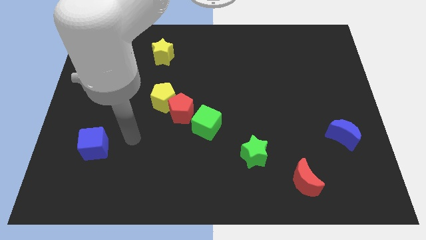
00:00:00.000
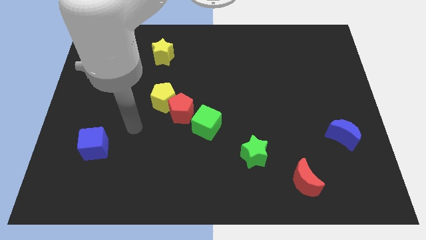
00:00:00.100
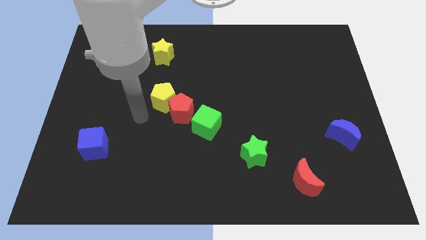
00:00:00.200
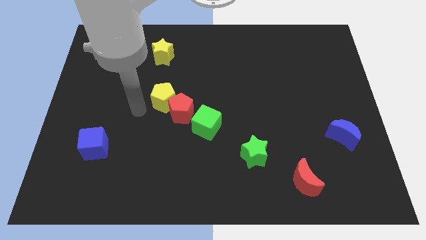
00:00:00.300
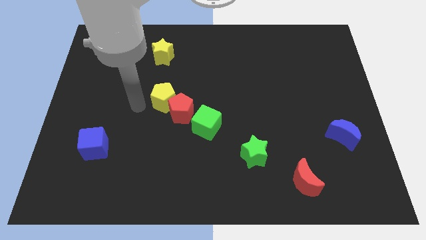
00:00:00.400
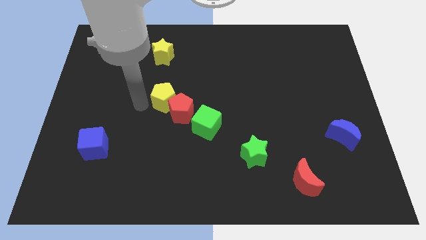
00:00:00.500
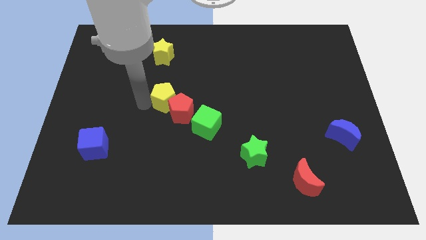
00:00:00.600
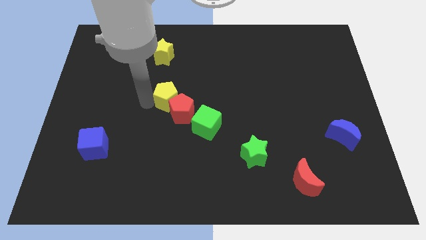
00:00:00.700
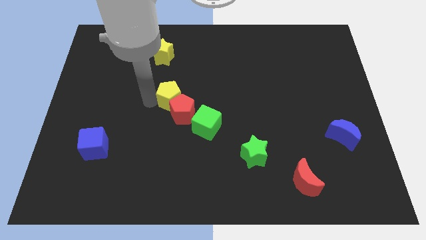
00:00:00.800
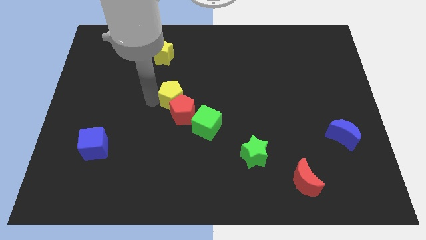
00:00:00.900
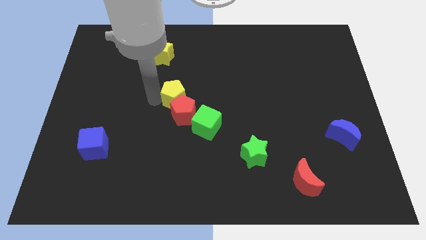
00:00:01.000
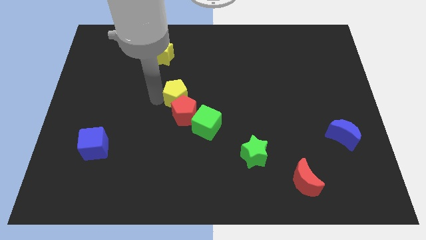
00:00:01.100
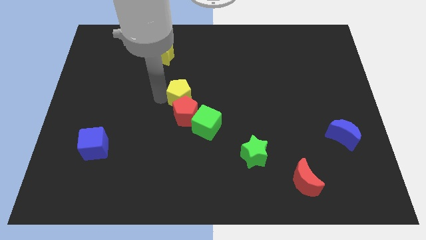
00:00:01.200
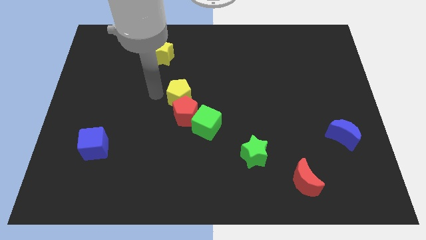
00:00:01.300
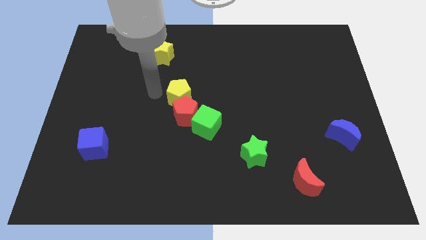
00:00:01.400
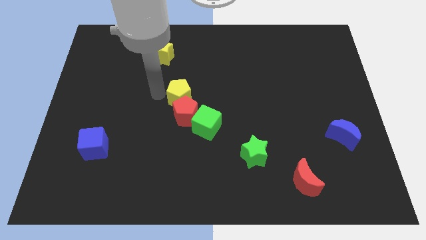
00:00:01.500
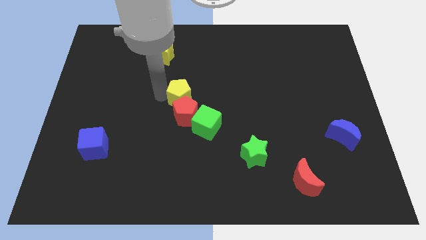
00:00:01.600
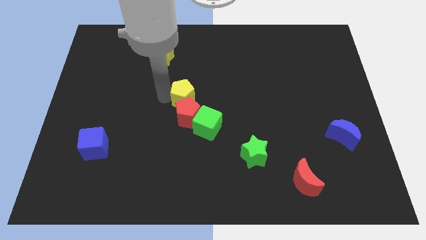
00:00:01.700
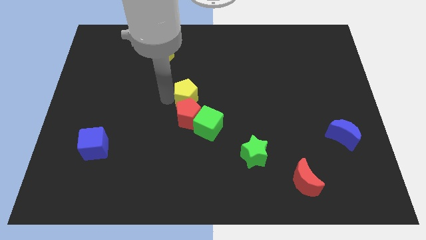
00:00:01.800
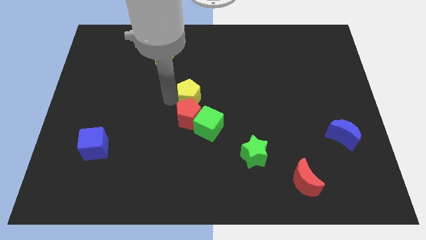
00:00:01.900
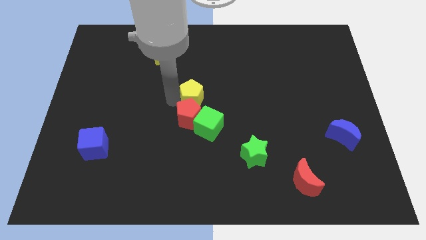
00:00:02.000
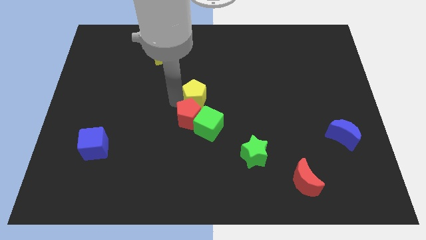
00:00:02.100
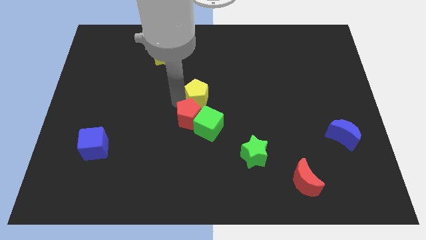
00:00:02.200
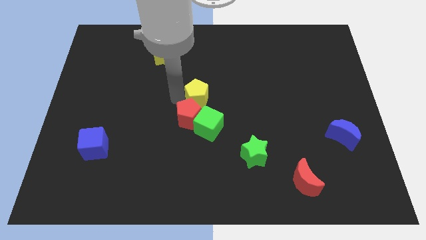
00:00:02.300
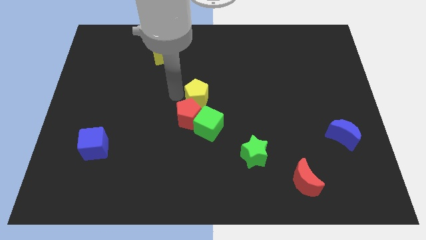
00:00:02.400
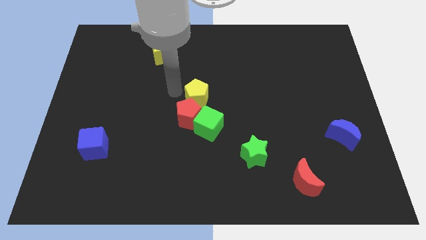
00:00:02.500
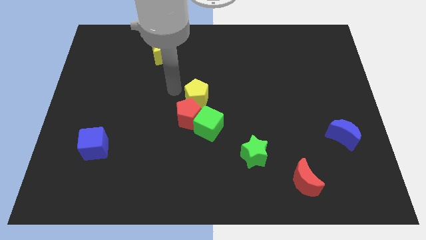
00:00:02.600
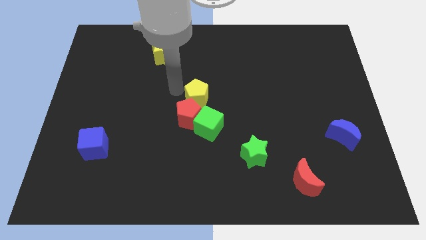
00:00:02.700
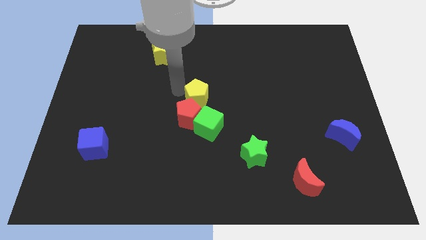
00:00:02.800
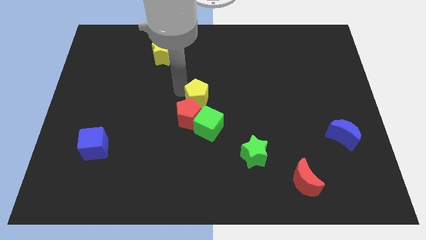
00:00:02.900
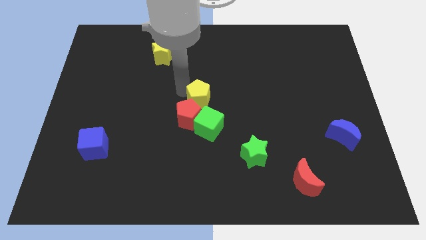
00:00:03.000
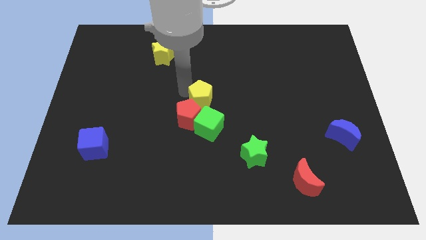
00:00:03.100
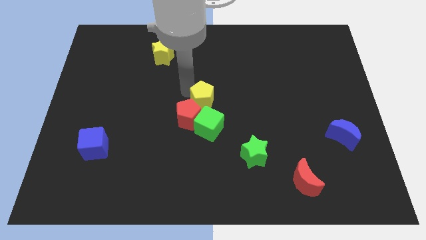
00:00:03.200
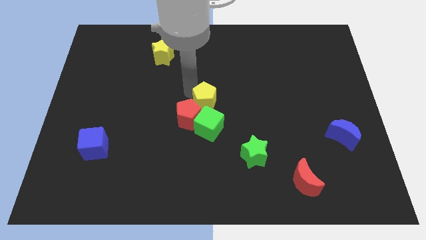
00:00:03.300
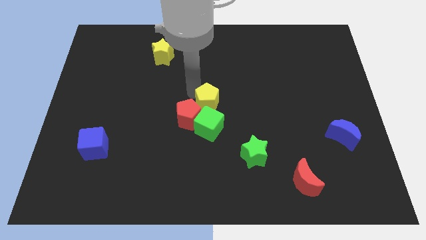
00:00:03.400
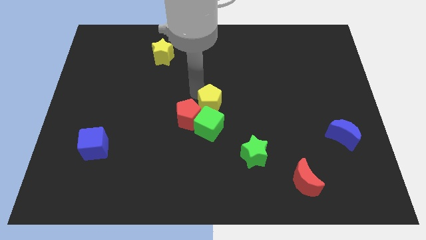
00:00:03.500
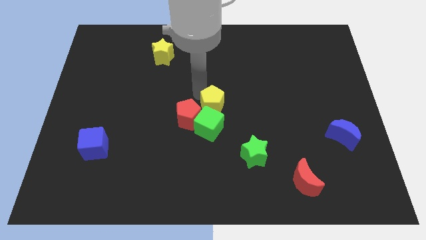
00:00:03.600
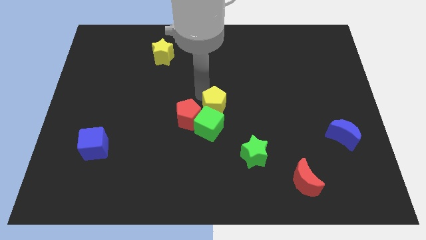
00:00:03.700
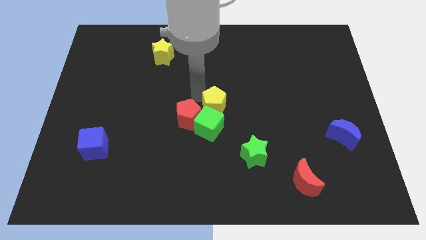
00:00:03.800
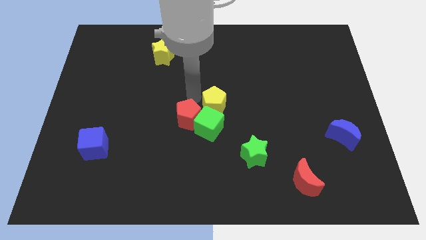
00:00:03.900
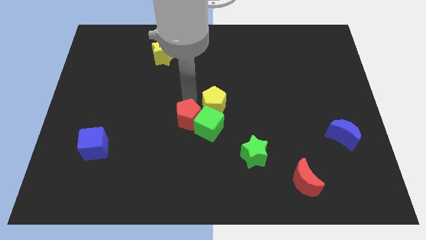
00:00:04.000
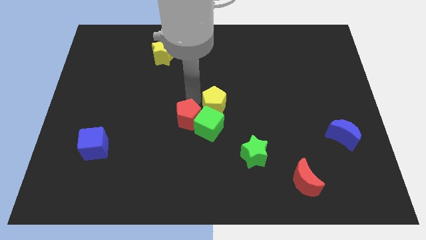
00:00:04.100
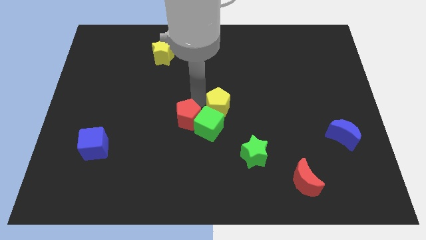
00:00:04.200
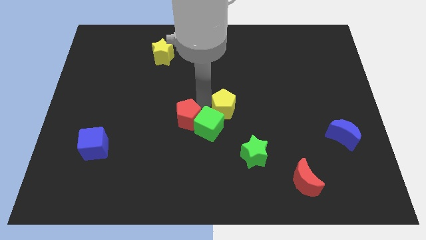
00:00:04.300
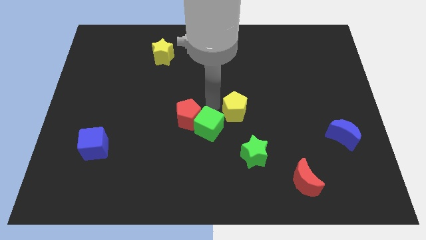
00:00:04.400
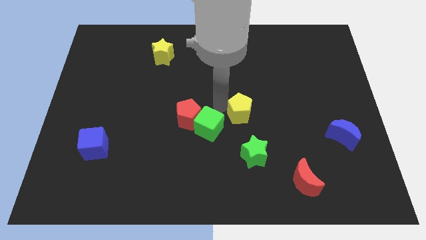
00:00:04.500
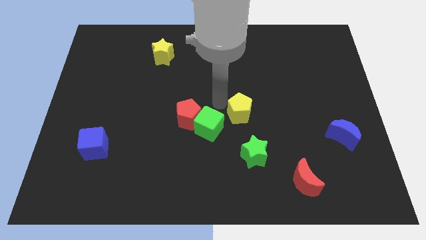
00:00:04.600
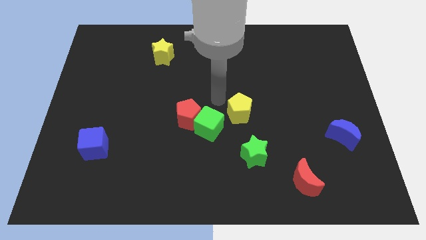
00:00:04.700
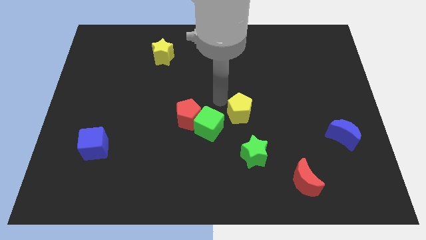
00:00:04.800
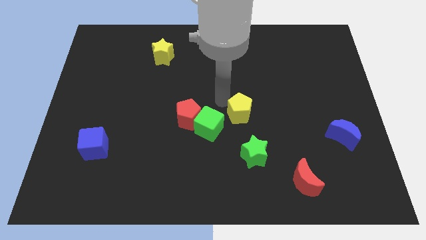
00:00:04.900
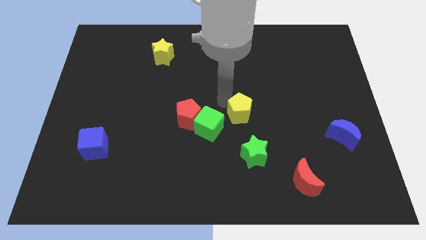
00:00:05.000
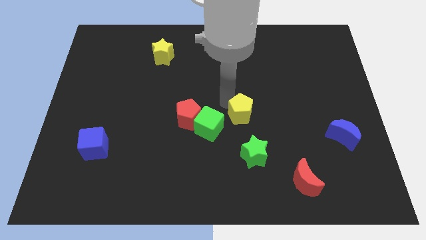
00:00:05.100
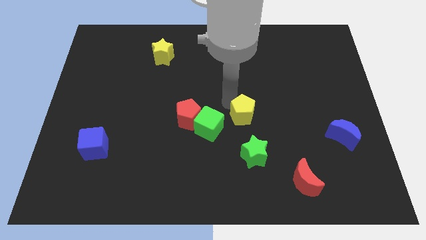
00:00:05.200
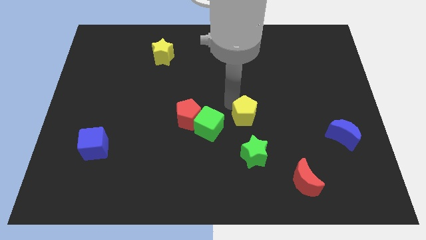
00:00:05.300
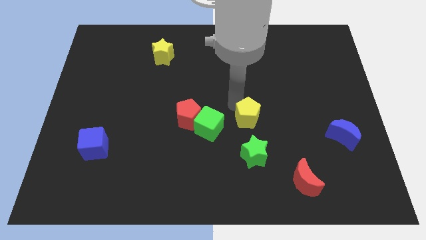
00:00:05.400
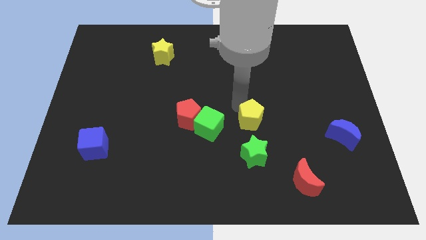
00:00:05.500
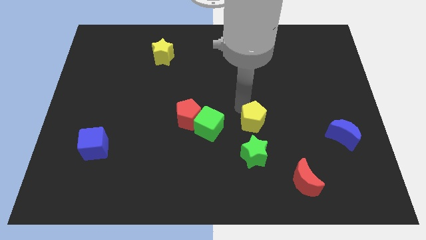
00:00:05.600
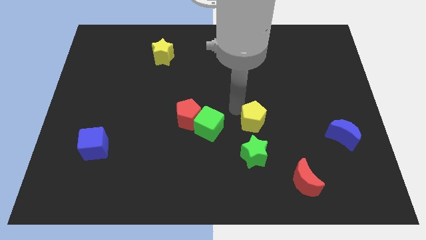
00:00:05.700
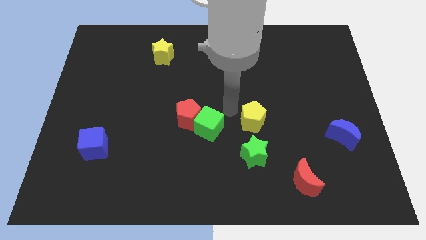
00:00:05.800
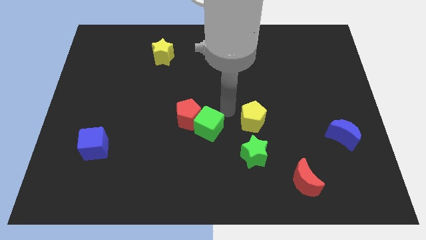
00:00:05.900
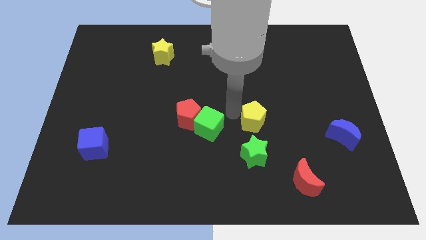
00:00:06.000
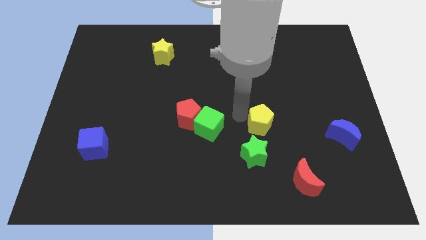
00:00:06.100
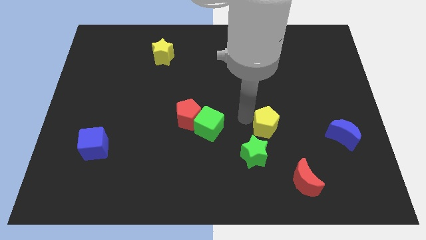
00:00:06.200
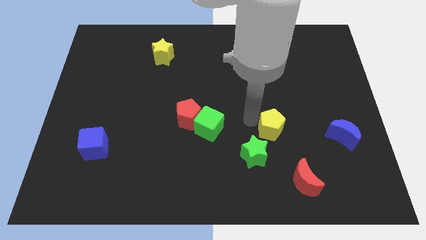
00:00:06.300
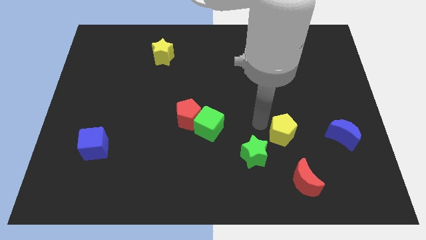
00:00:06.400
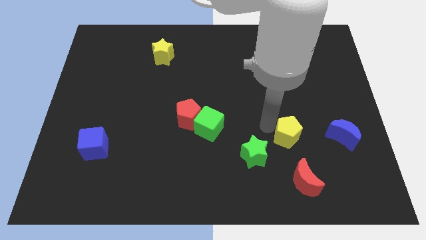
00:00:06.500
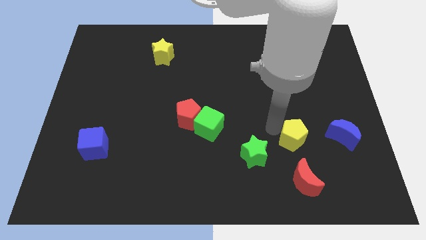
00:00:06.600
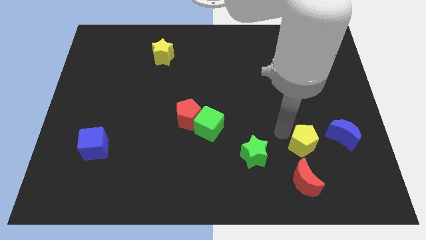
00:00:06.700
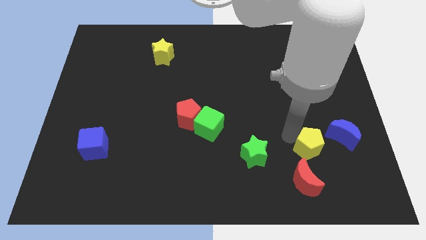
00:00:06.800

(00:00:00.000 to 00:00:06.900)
push the yellow pentagon to the top right side of the red moon

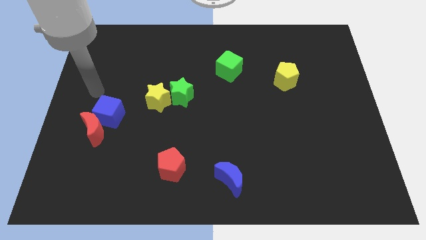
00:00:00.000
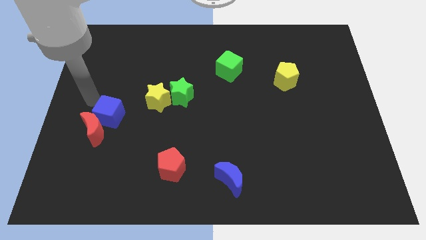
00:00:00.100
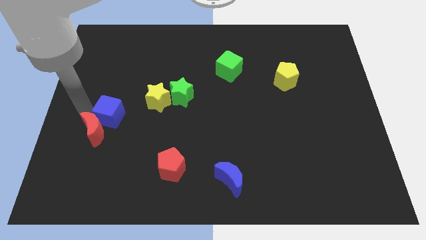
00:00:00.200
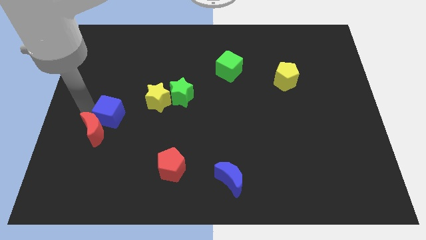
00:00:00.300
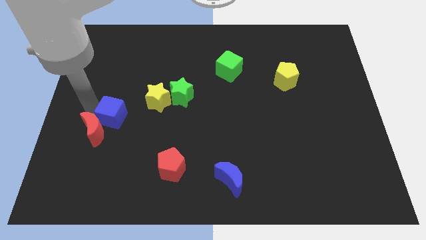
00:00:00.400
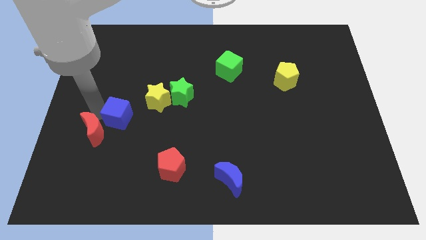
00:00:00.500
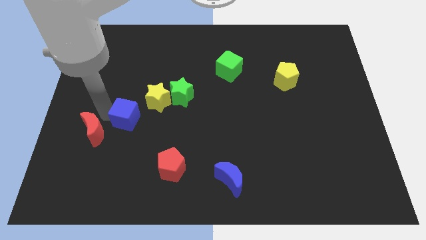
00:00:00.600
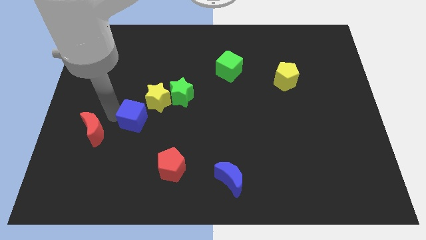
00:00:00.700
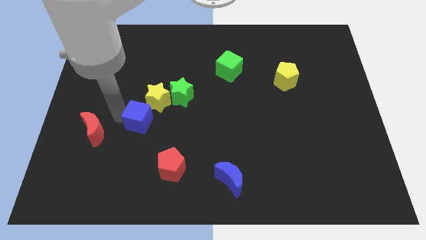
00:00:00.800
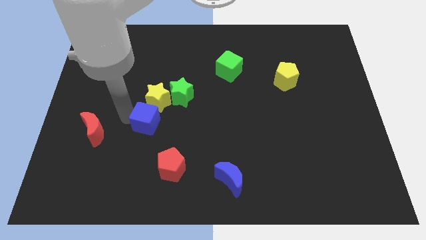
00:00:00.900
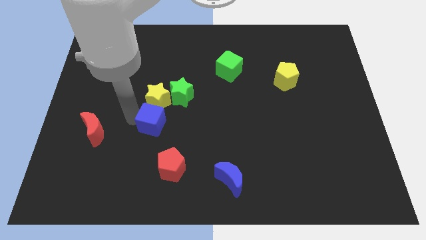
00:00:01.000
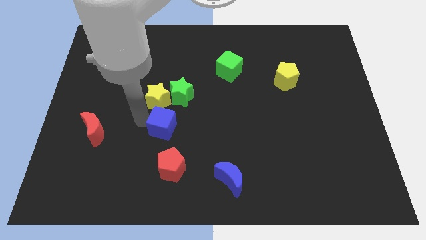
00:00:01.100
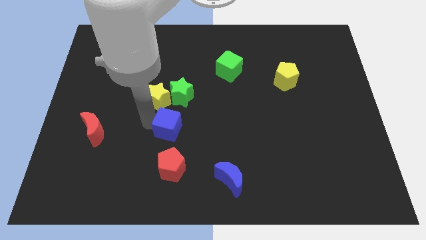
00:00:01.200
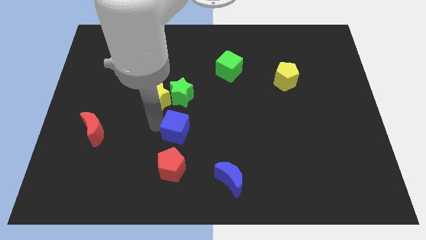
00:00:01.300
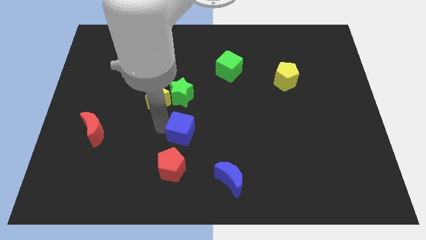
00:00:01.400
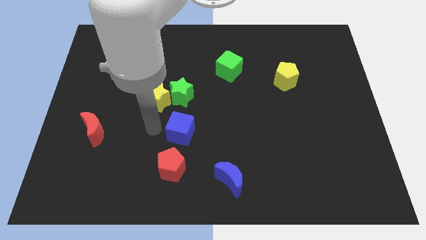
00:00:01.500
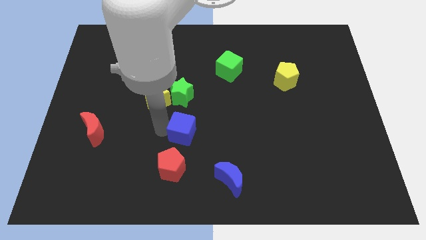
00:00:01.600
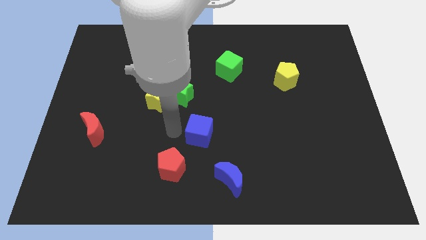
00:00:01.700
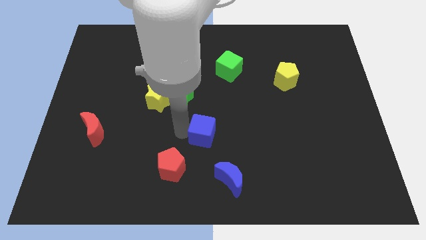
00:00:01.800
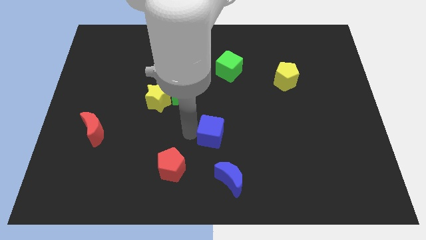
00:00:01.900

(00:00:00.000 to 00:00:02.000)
slide the blue cube to the top of the blue moon
